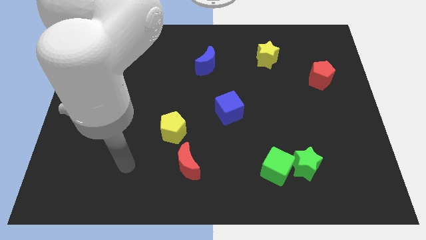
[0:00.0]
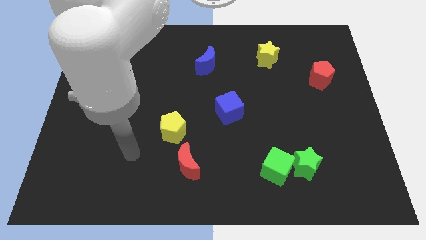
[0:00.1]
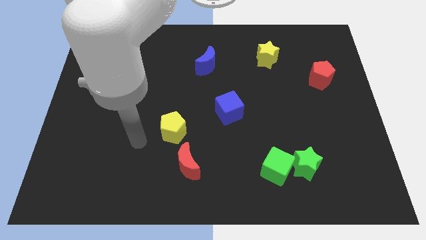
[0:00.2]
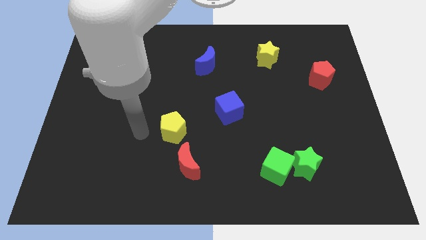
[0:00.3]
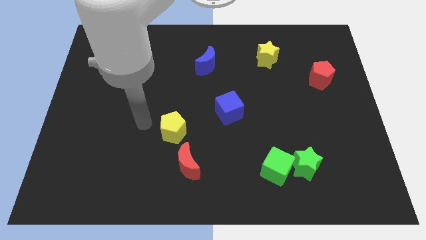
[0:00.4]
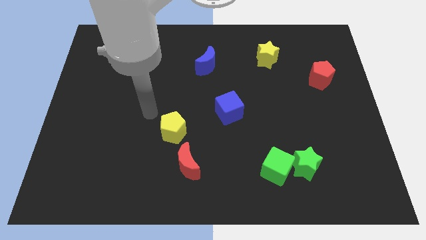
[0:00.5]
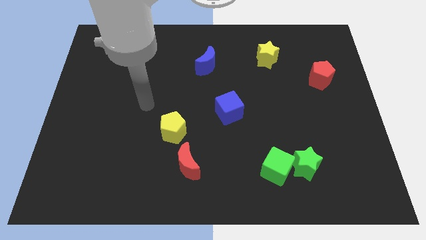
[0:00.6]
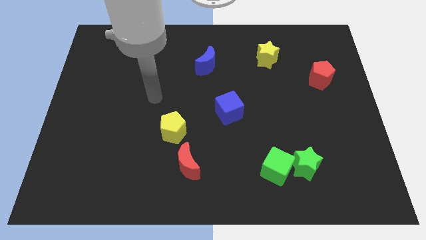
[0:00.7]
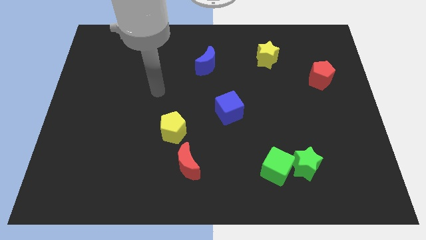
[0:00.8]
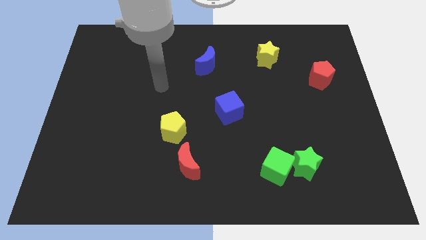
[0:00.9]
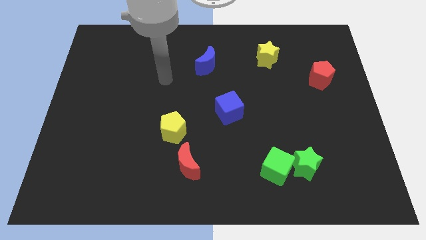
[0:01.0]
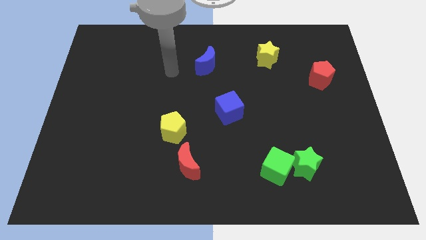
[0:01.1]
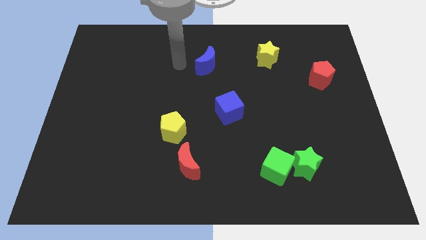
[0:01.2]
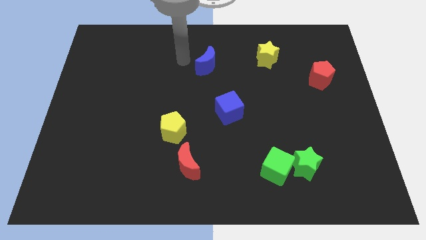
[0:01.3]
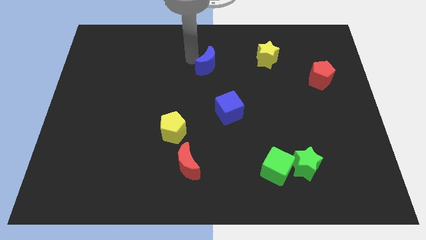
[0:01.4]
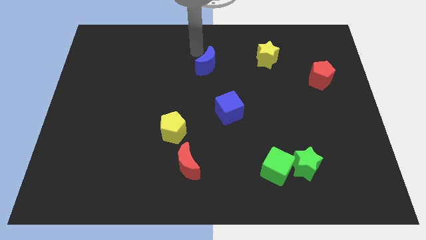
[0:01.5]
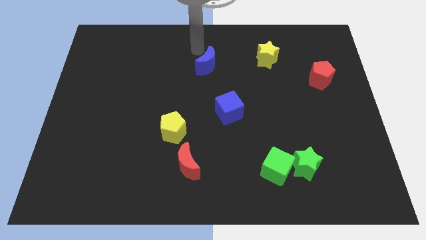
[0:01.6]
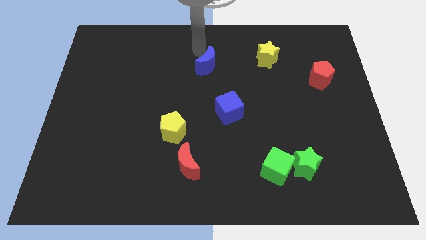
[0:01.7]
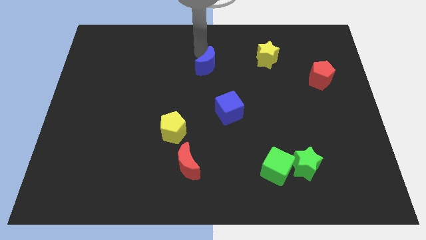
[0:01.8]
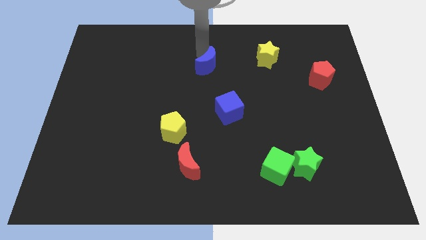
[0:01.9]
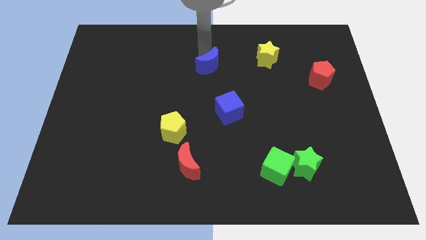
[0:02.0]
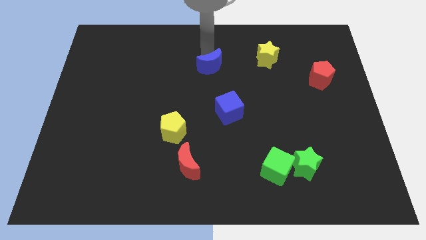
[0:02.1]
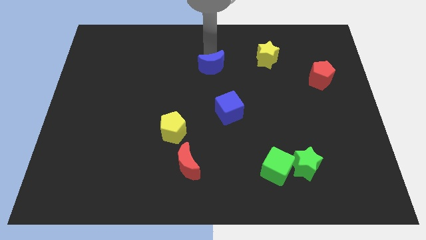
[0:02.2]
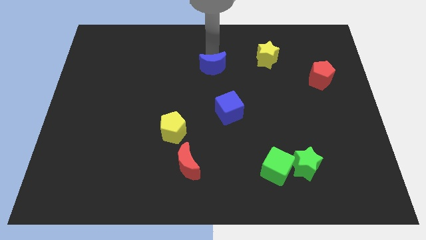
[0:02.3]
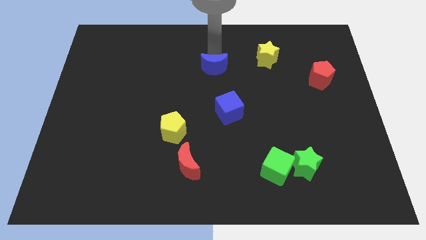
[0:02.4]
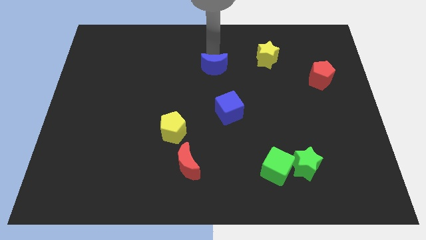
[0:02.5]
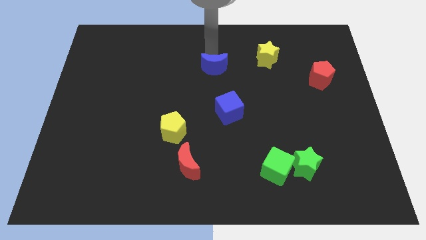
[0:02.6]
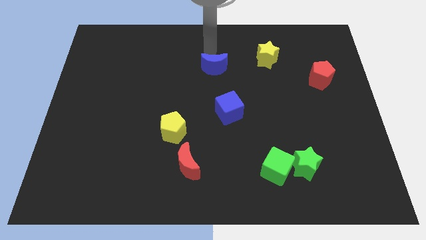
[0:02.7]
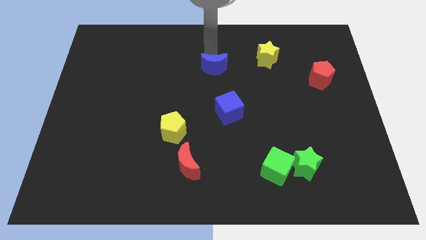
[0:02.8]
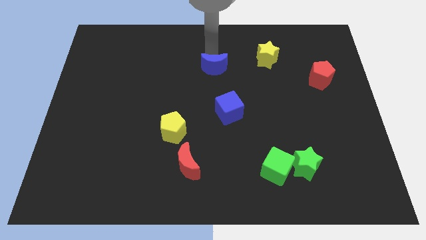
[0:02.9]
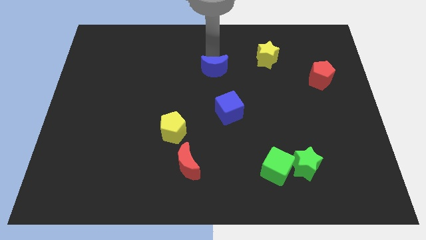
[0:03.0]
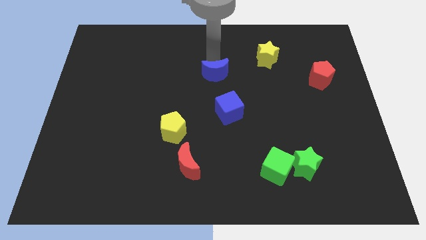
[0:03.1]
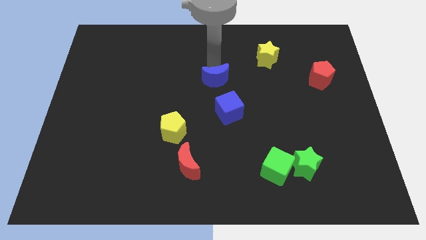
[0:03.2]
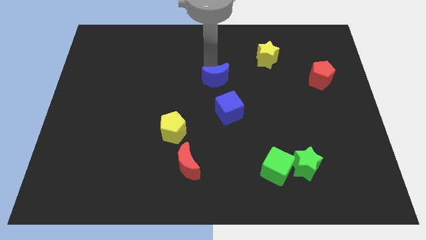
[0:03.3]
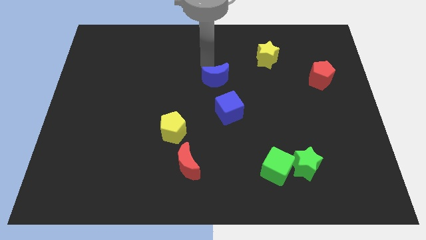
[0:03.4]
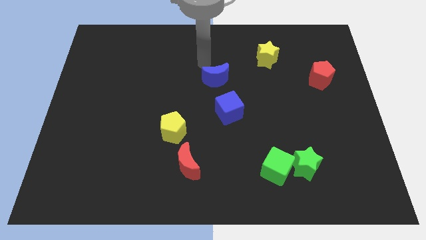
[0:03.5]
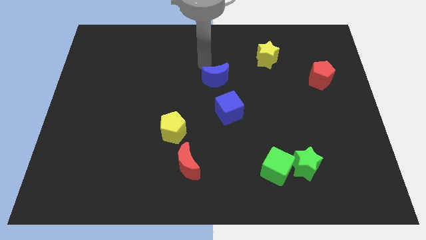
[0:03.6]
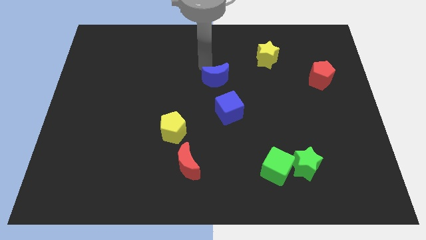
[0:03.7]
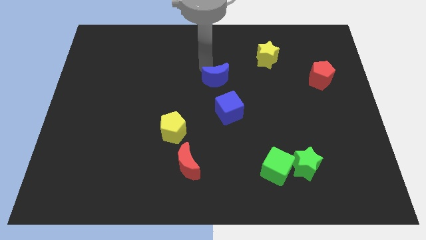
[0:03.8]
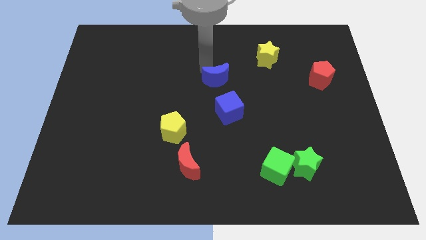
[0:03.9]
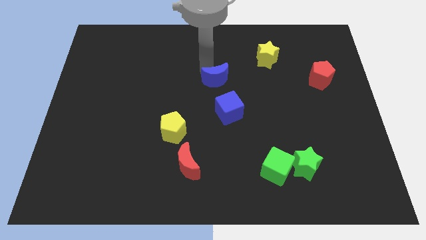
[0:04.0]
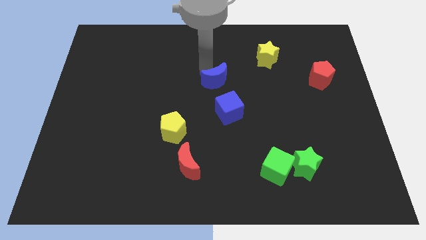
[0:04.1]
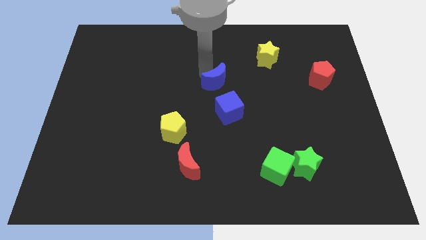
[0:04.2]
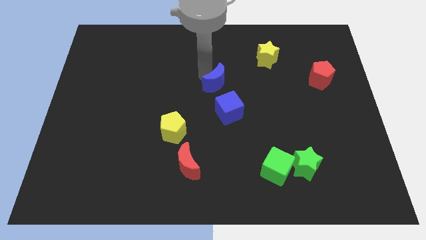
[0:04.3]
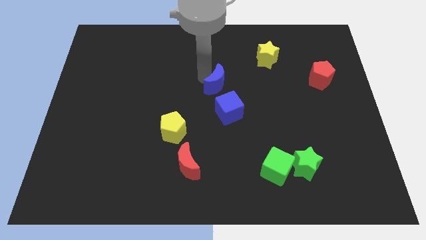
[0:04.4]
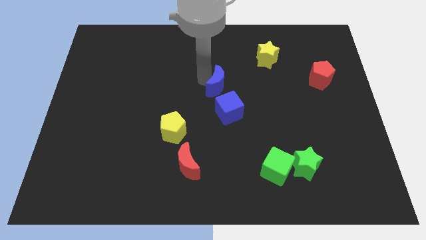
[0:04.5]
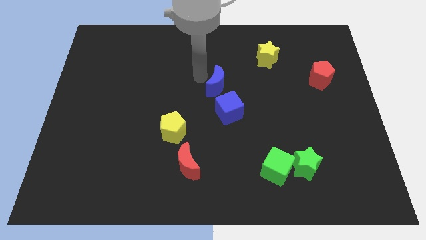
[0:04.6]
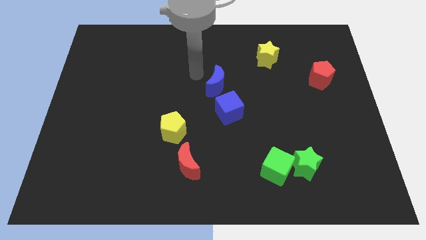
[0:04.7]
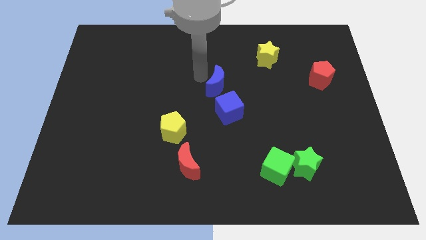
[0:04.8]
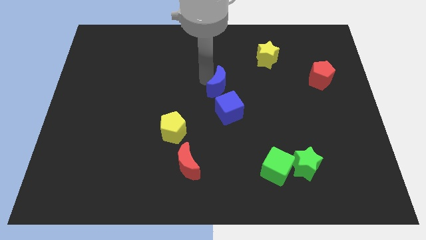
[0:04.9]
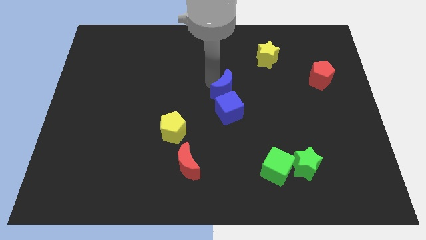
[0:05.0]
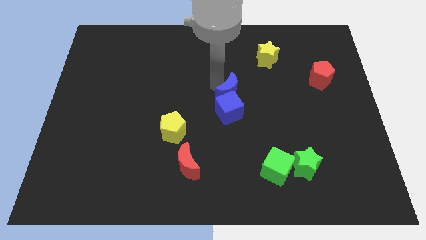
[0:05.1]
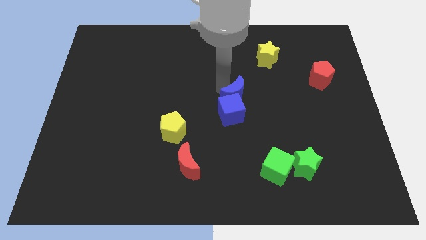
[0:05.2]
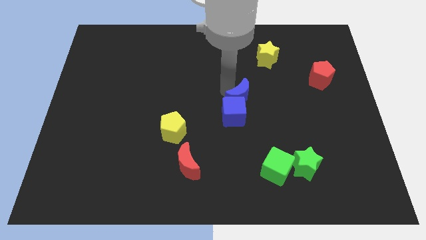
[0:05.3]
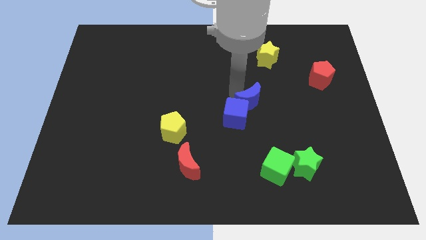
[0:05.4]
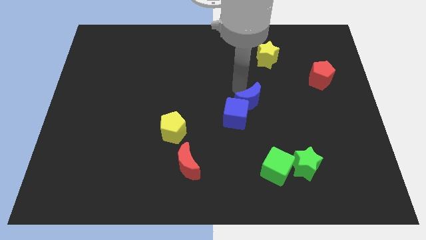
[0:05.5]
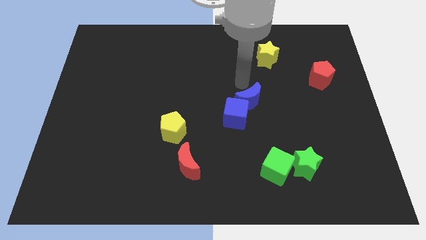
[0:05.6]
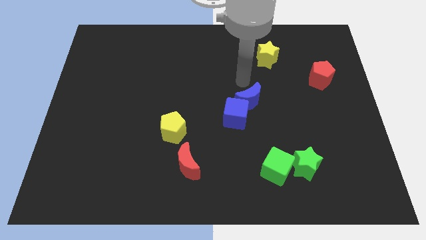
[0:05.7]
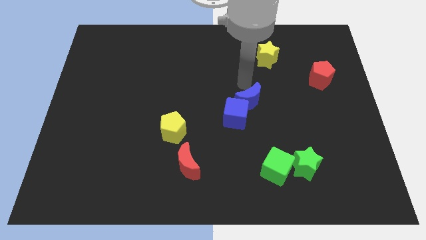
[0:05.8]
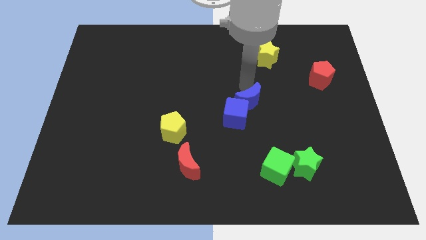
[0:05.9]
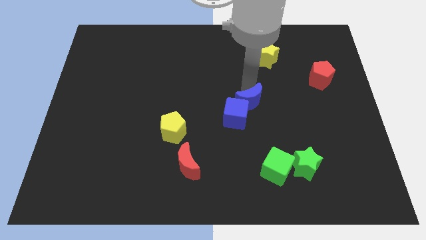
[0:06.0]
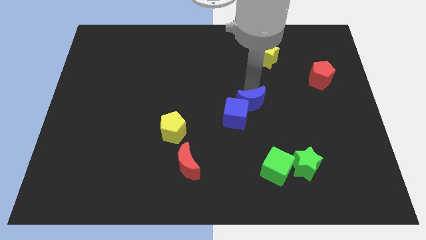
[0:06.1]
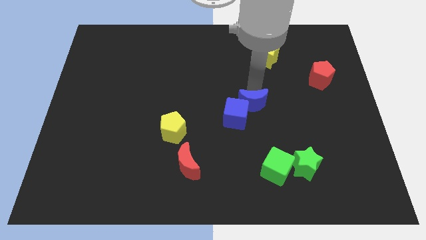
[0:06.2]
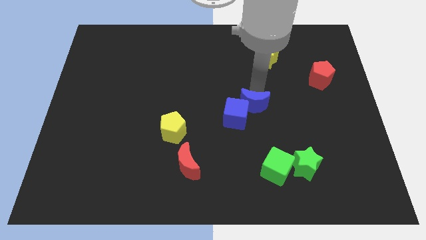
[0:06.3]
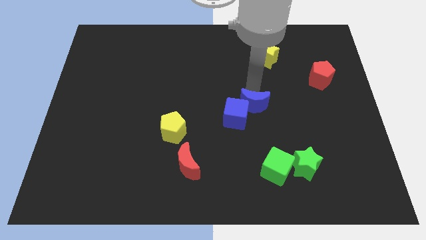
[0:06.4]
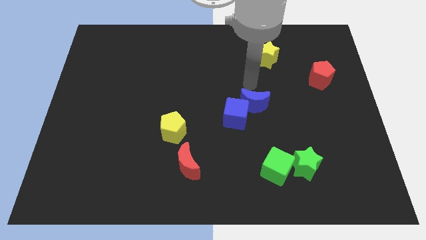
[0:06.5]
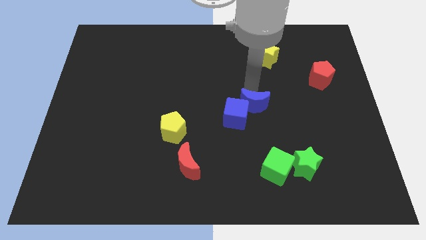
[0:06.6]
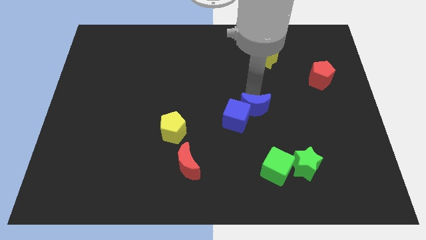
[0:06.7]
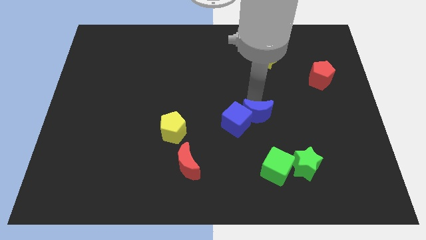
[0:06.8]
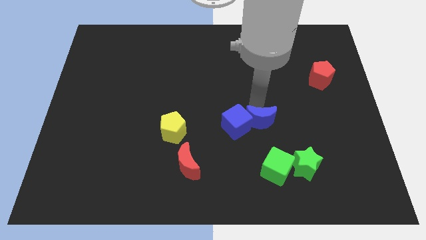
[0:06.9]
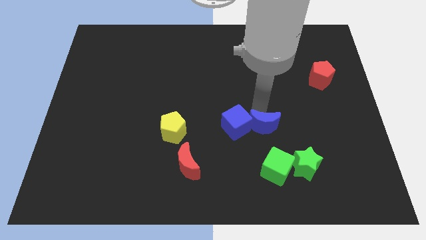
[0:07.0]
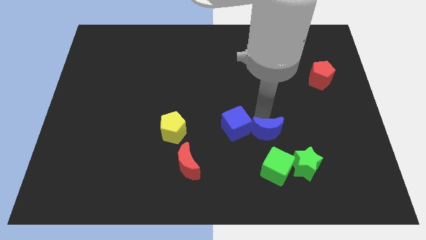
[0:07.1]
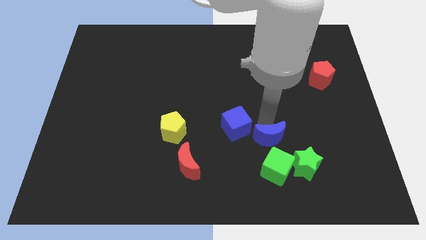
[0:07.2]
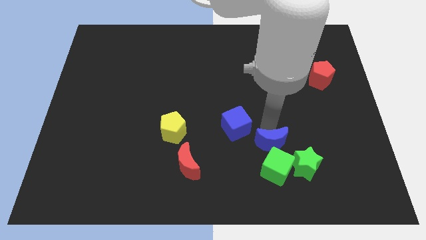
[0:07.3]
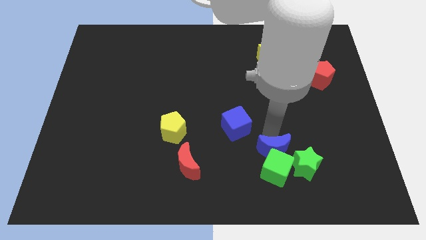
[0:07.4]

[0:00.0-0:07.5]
push the blue moon to the green cube
